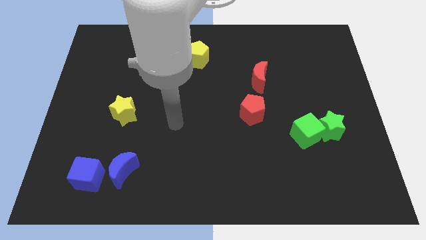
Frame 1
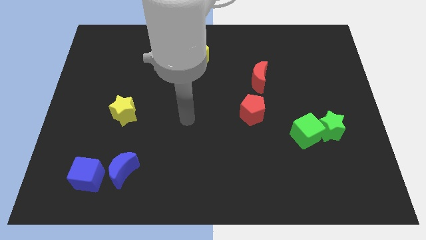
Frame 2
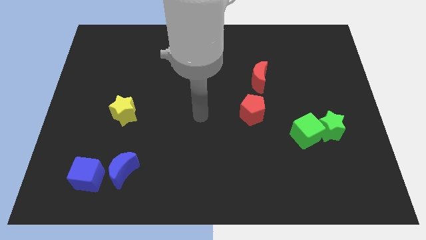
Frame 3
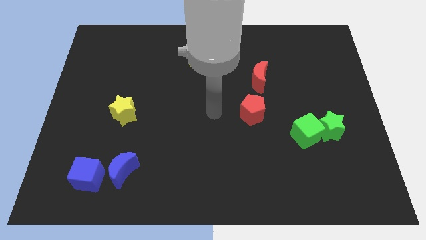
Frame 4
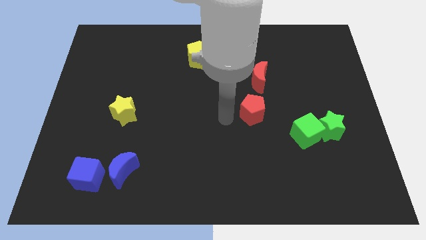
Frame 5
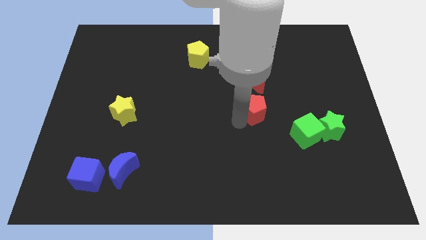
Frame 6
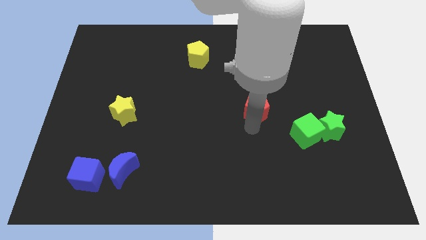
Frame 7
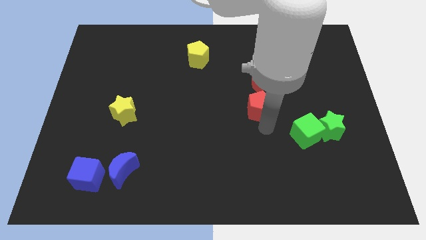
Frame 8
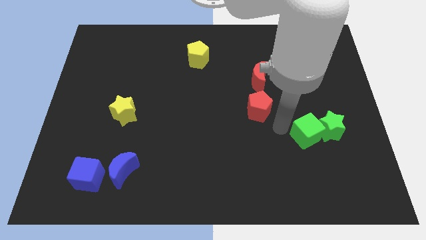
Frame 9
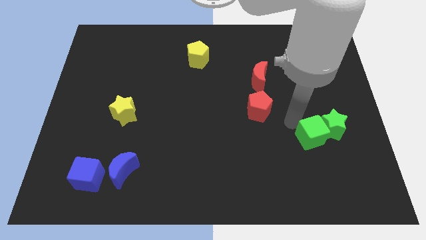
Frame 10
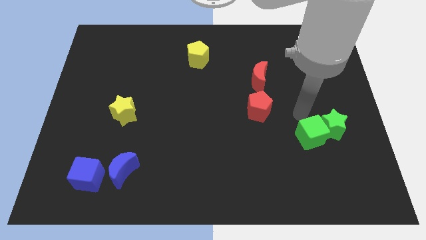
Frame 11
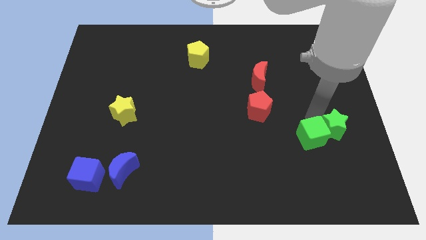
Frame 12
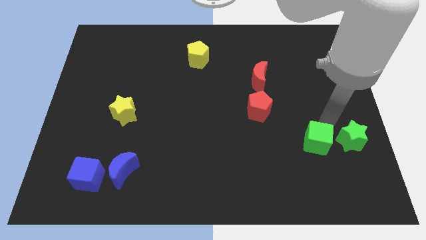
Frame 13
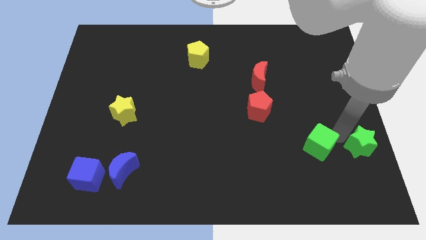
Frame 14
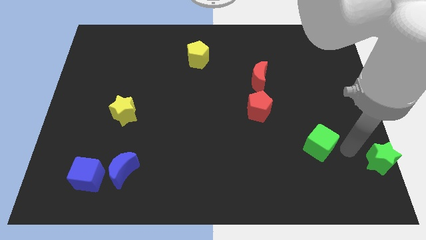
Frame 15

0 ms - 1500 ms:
move the green cube away from the green star

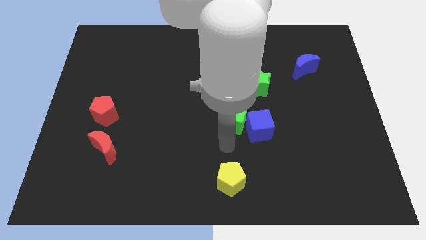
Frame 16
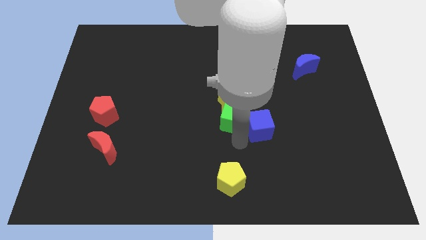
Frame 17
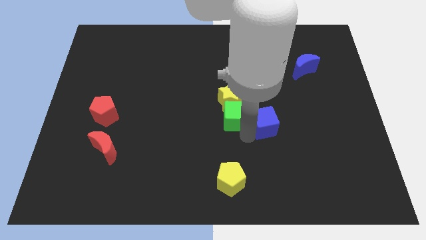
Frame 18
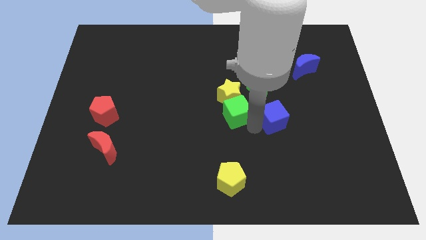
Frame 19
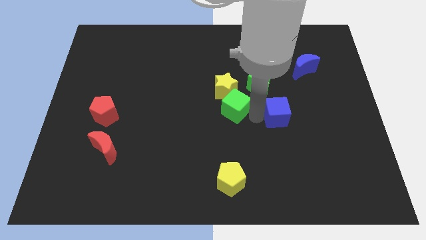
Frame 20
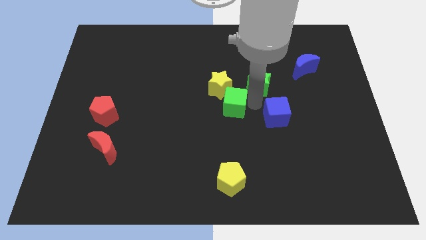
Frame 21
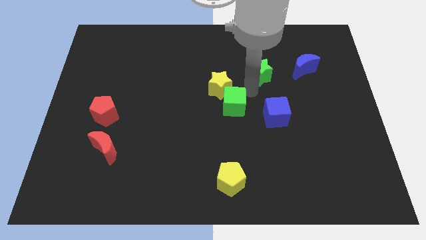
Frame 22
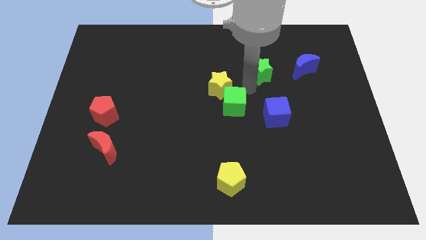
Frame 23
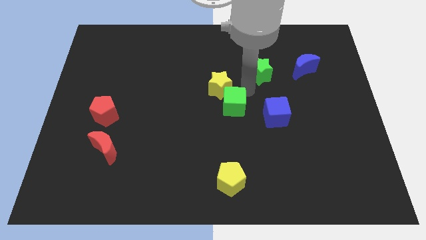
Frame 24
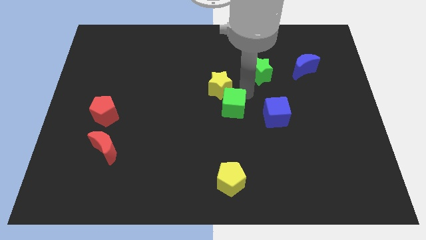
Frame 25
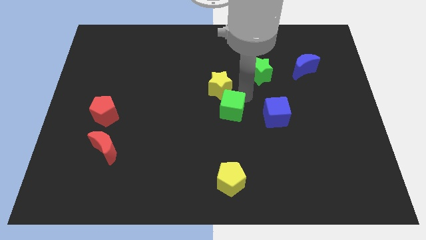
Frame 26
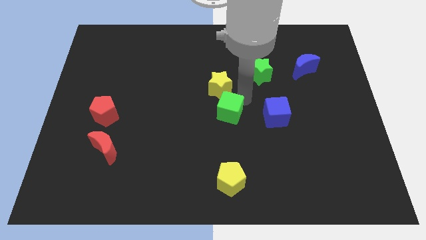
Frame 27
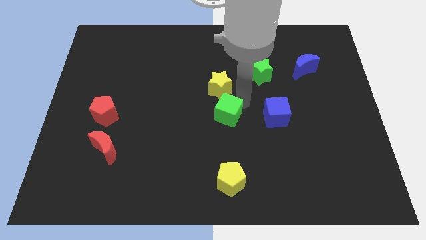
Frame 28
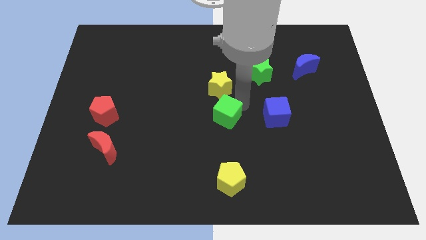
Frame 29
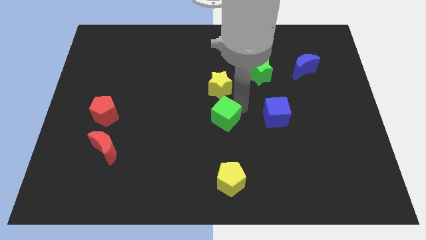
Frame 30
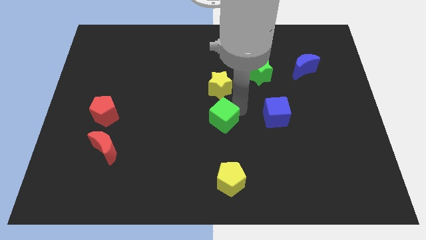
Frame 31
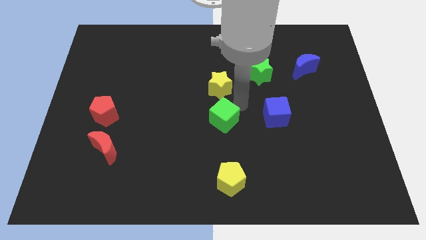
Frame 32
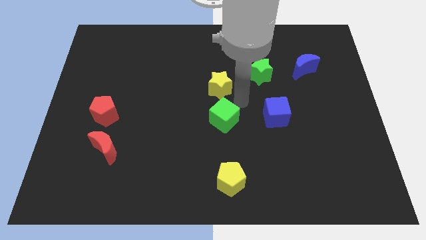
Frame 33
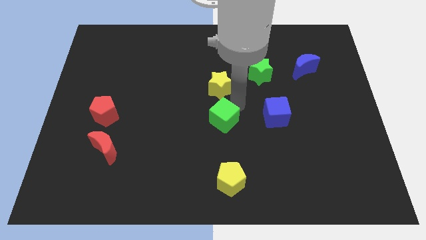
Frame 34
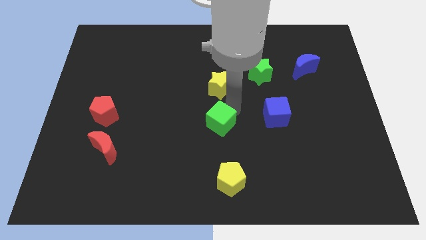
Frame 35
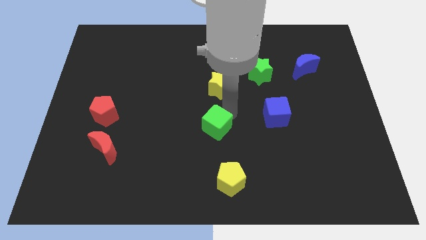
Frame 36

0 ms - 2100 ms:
separate the green cube from the yellow star and blue cube

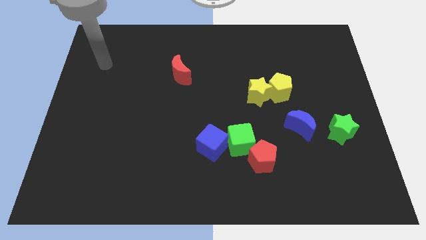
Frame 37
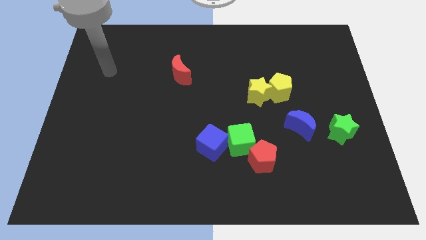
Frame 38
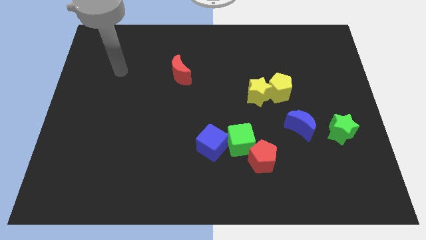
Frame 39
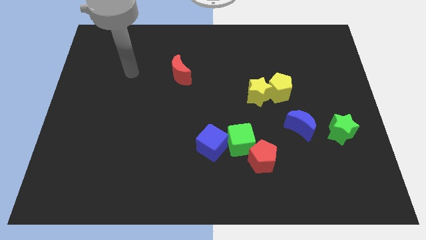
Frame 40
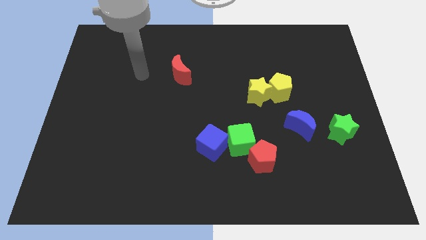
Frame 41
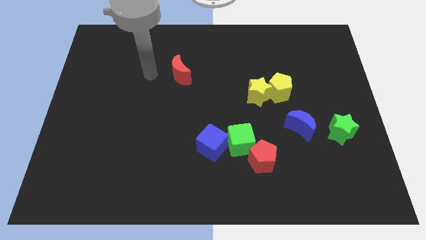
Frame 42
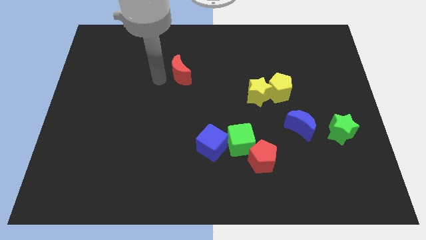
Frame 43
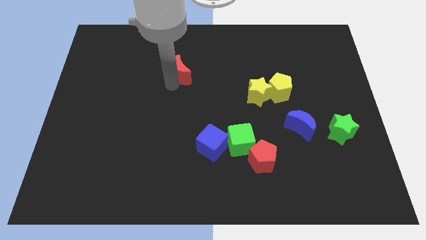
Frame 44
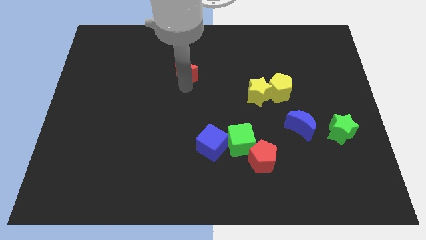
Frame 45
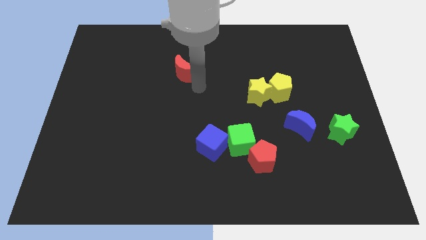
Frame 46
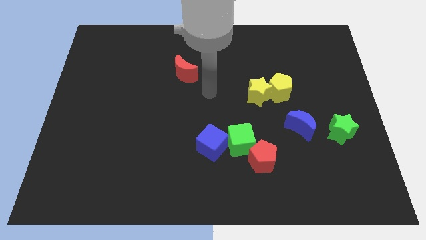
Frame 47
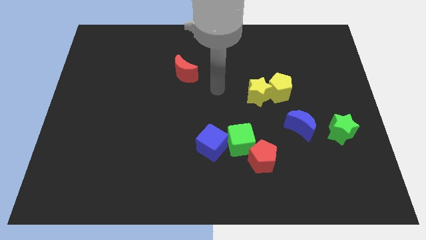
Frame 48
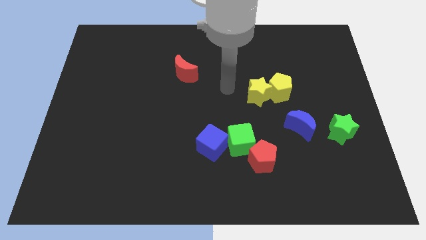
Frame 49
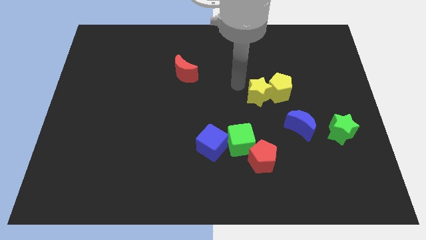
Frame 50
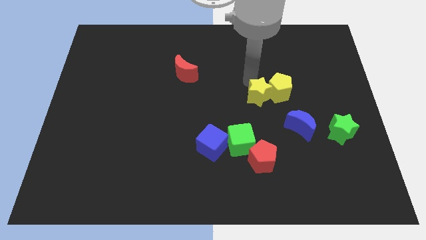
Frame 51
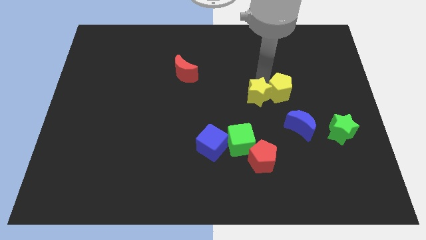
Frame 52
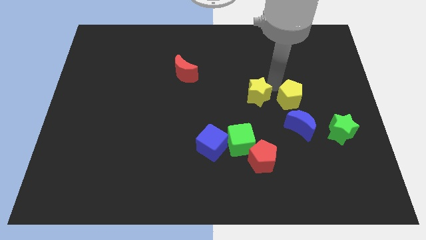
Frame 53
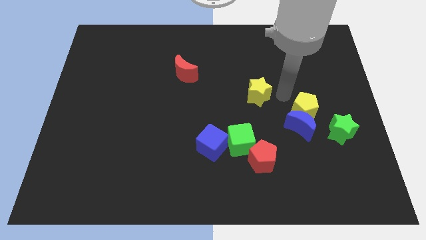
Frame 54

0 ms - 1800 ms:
move the yellow star away from the yellow pentagon

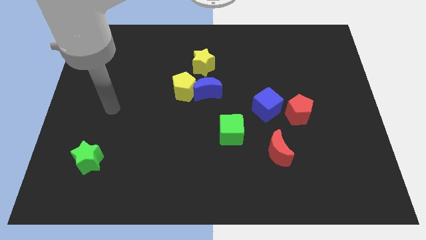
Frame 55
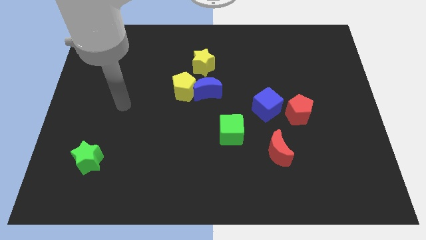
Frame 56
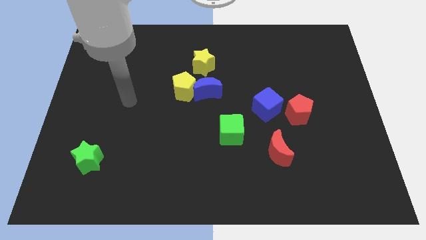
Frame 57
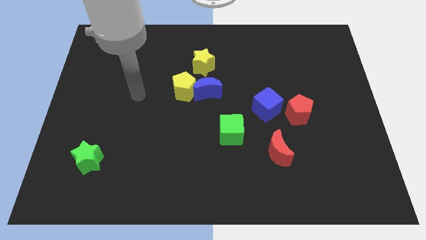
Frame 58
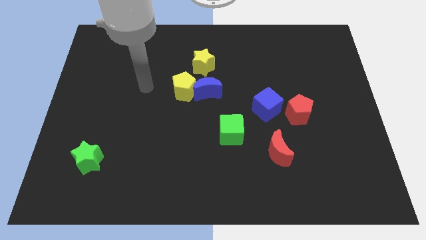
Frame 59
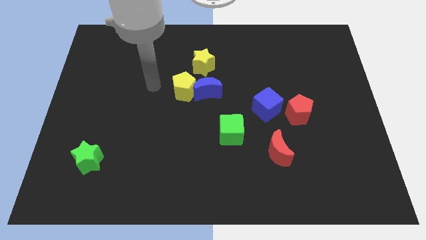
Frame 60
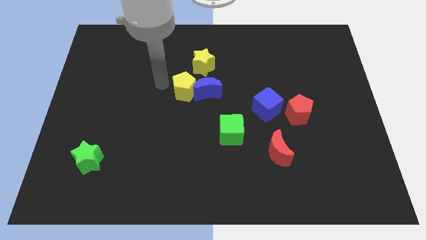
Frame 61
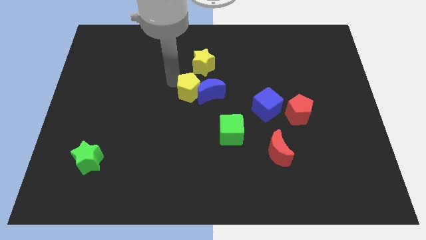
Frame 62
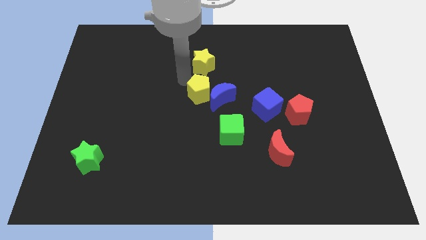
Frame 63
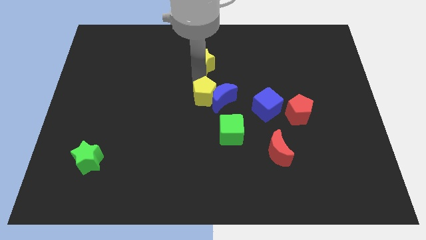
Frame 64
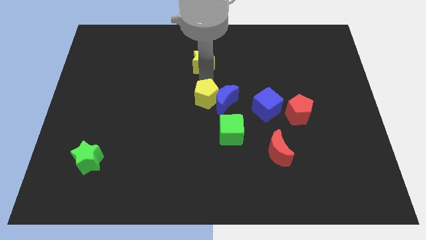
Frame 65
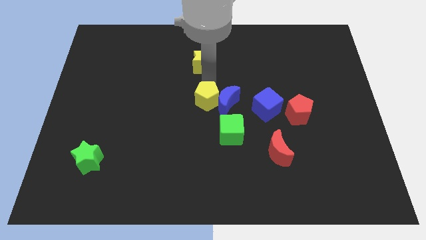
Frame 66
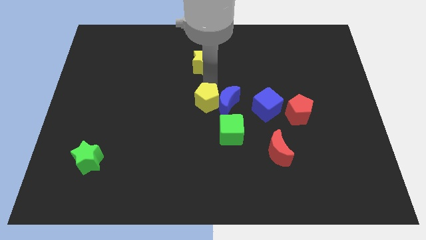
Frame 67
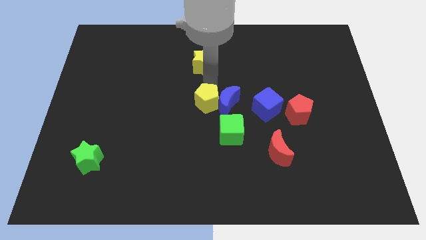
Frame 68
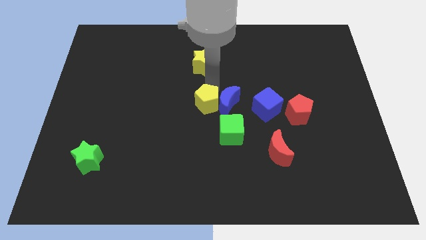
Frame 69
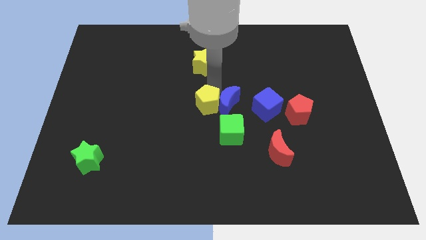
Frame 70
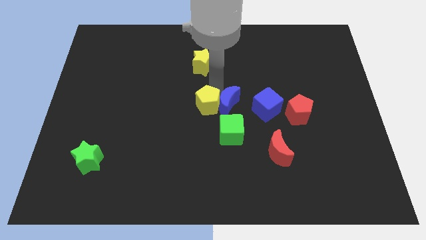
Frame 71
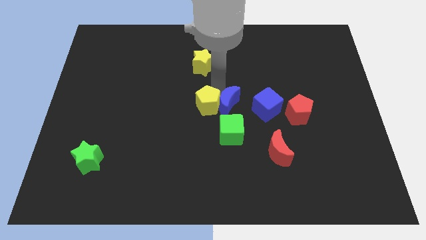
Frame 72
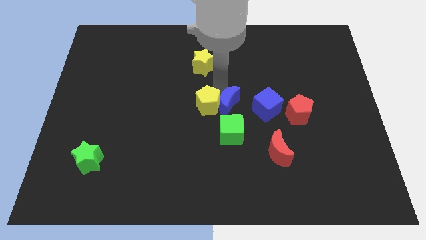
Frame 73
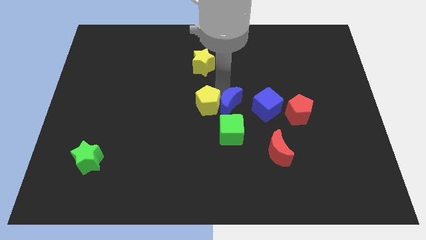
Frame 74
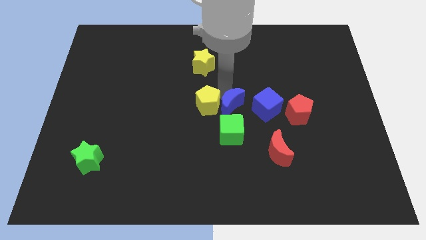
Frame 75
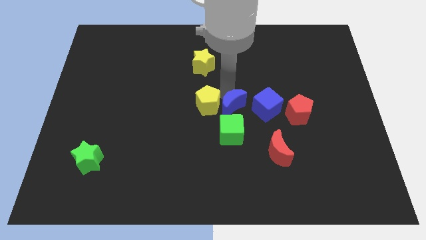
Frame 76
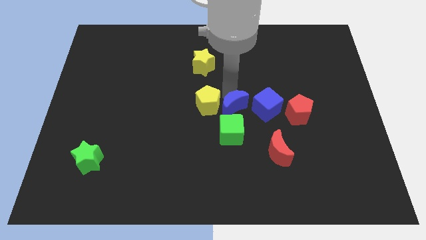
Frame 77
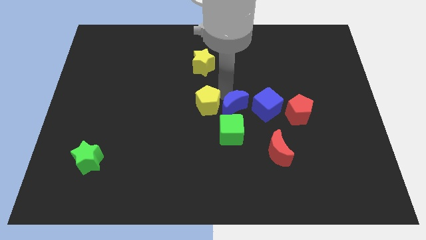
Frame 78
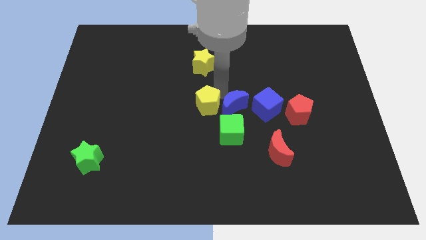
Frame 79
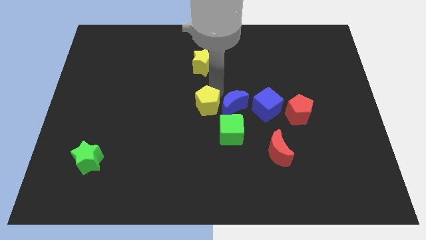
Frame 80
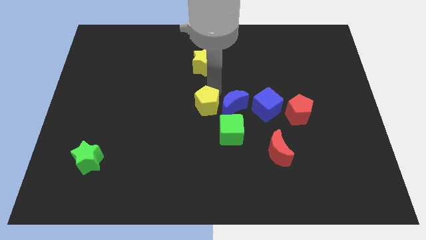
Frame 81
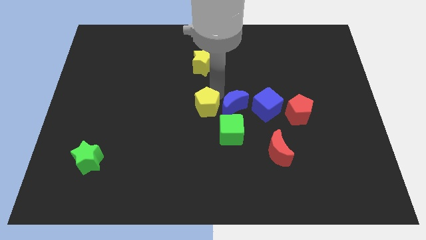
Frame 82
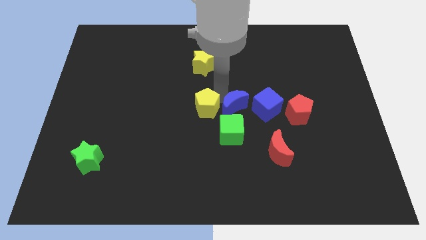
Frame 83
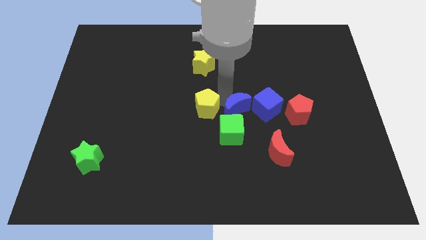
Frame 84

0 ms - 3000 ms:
pull the blue moon apart from the yellow pentagon and yellow star

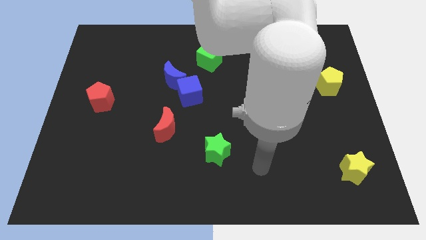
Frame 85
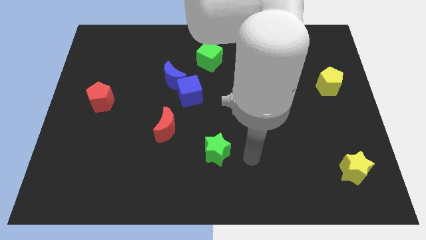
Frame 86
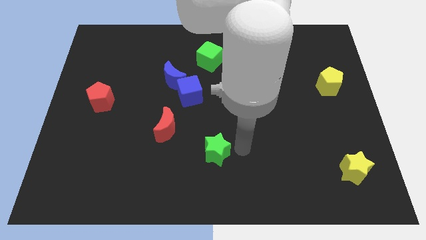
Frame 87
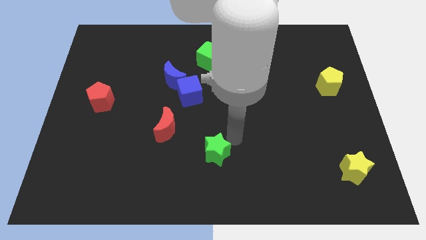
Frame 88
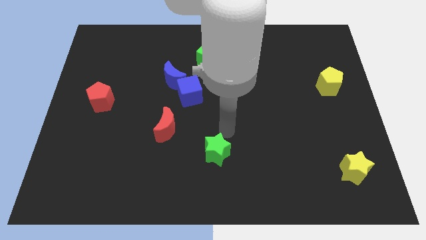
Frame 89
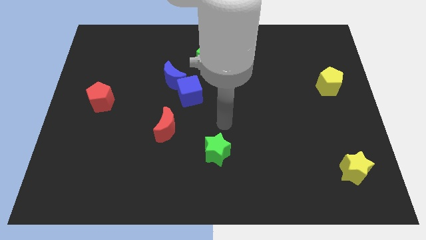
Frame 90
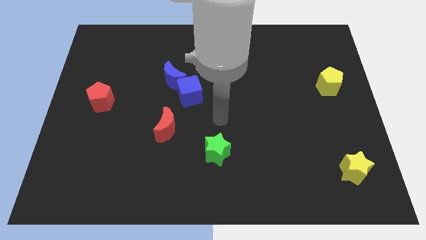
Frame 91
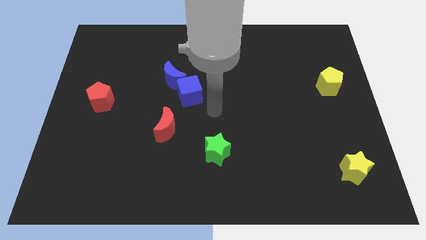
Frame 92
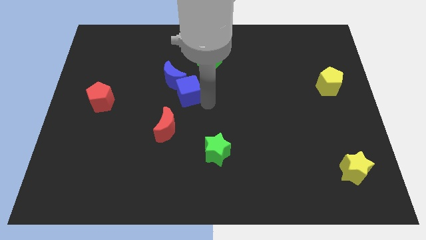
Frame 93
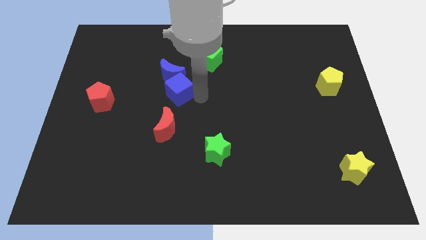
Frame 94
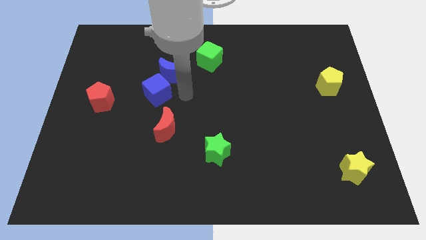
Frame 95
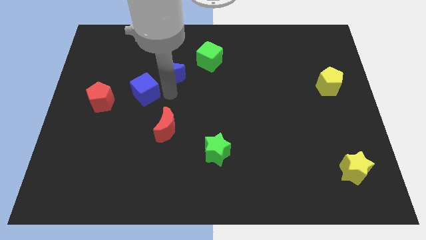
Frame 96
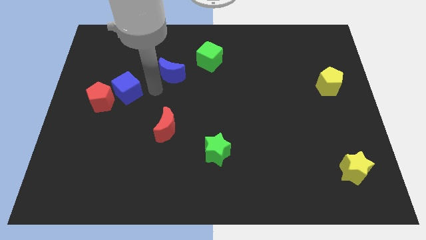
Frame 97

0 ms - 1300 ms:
separate the blue moon from the blue cube
